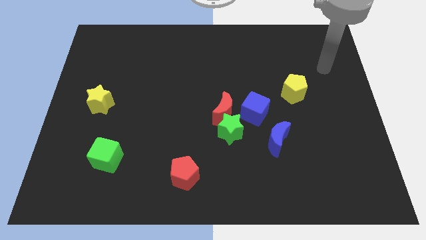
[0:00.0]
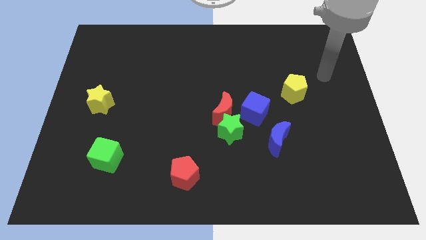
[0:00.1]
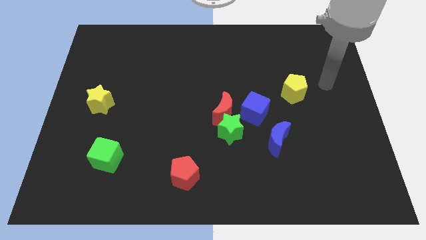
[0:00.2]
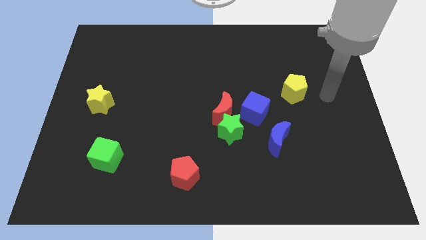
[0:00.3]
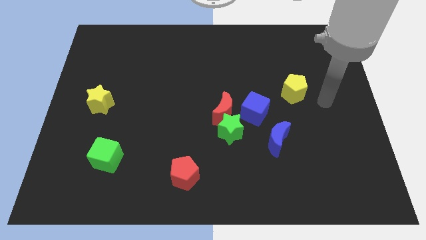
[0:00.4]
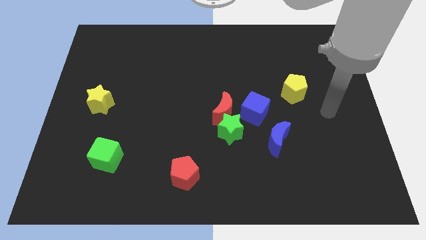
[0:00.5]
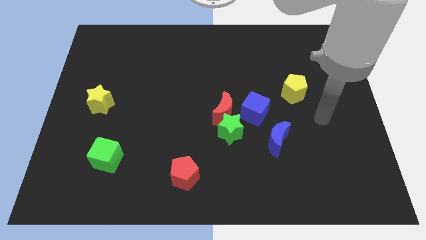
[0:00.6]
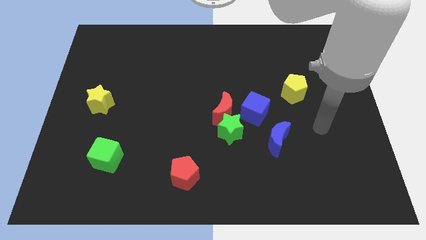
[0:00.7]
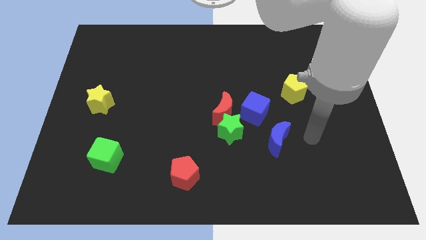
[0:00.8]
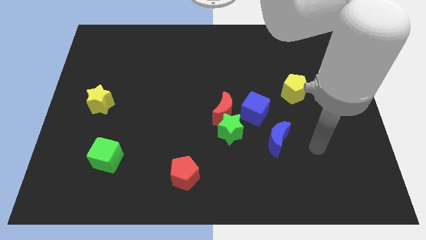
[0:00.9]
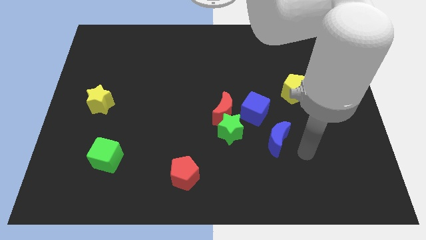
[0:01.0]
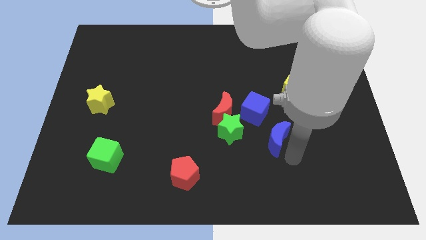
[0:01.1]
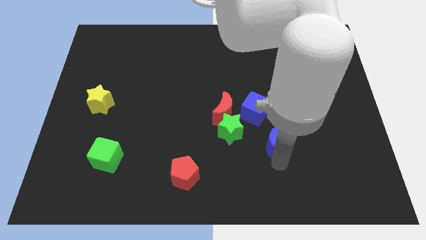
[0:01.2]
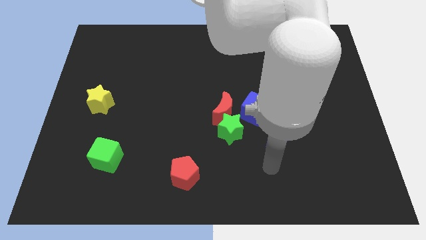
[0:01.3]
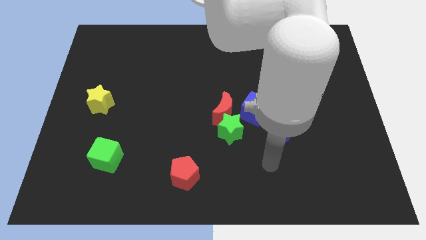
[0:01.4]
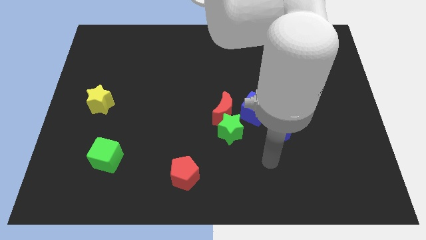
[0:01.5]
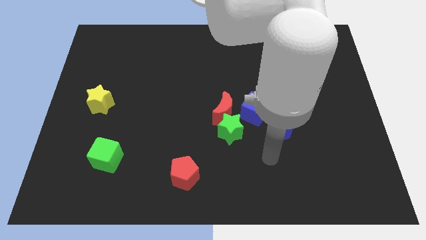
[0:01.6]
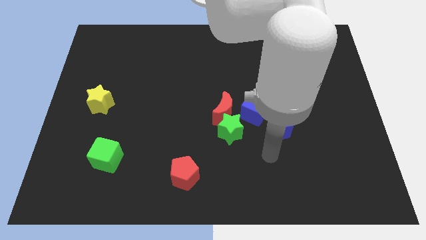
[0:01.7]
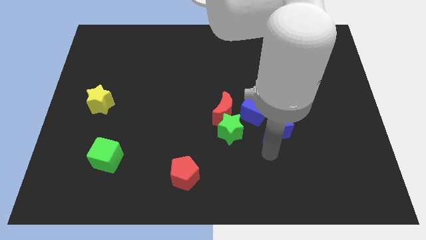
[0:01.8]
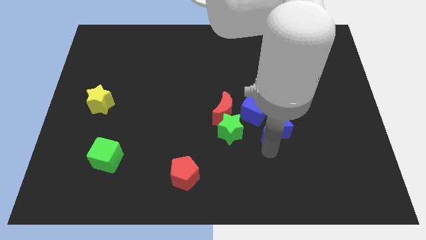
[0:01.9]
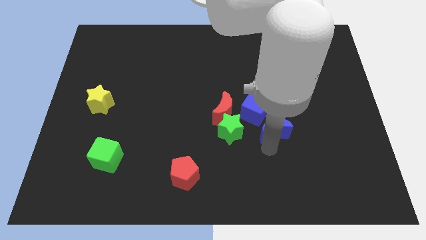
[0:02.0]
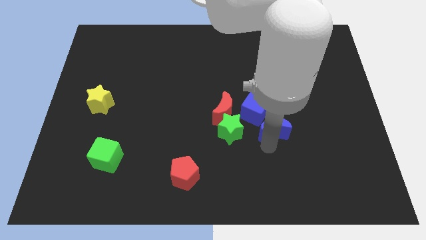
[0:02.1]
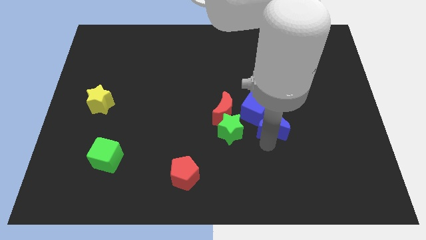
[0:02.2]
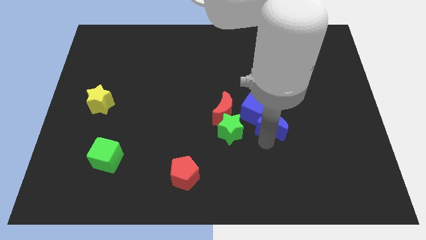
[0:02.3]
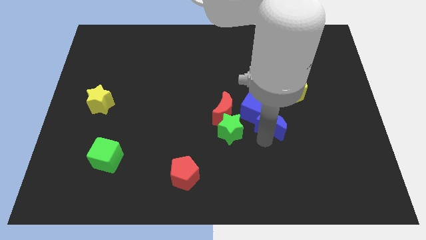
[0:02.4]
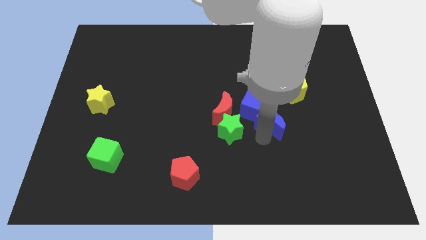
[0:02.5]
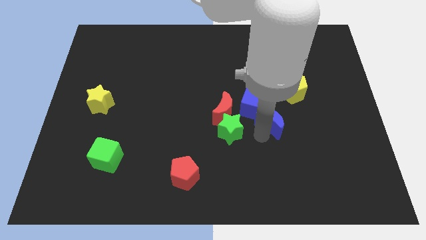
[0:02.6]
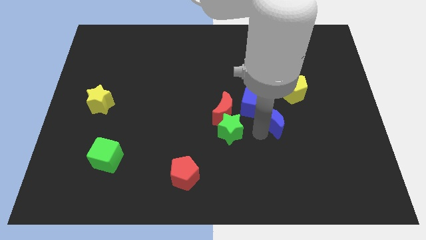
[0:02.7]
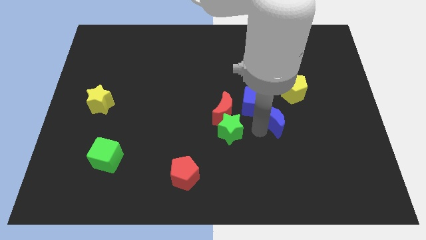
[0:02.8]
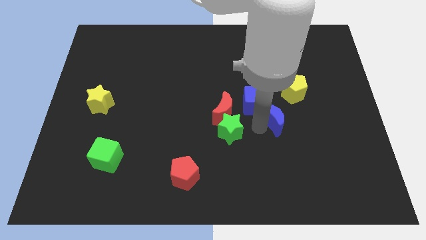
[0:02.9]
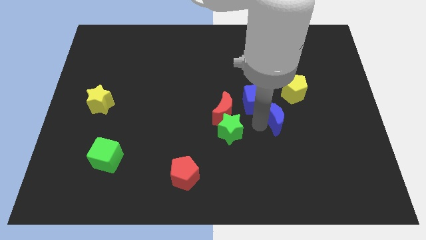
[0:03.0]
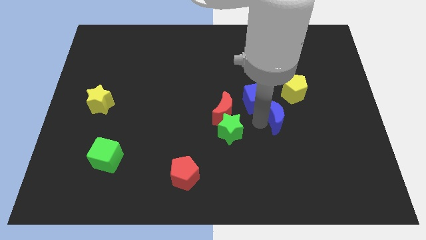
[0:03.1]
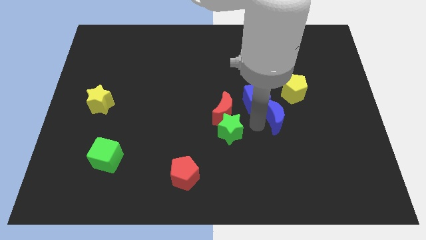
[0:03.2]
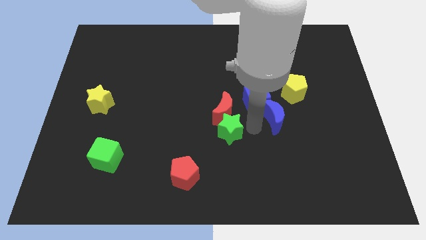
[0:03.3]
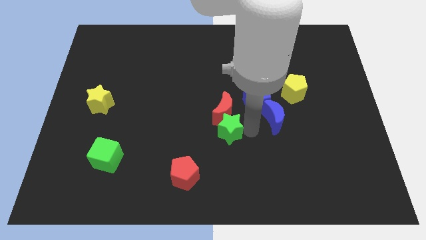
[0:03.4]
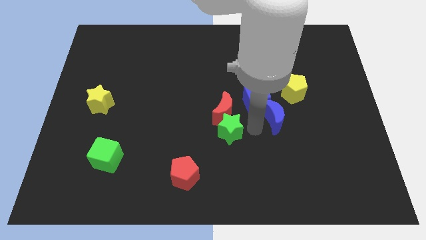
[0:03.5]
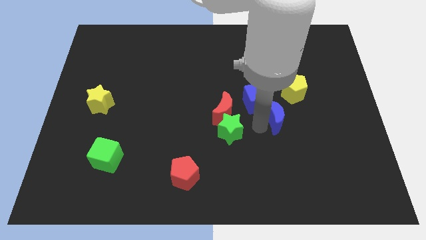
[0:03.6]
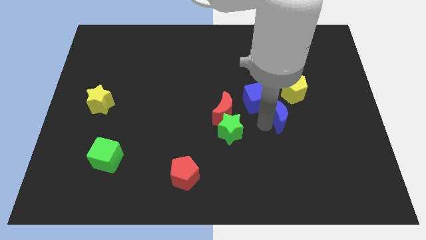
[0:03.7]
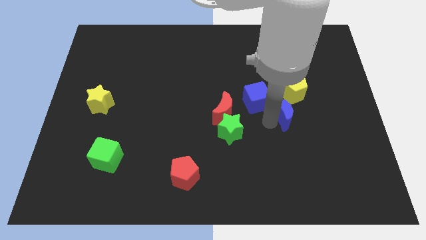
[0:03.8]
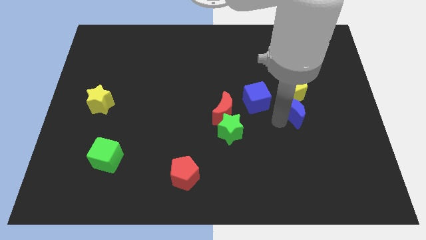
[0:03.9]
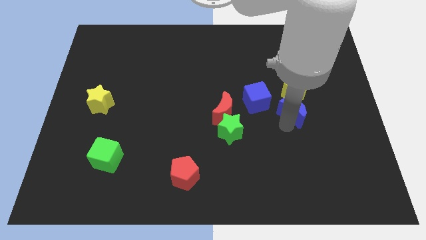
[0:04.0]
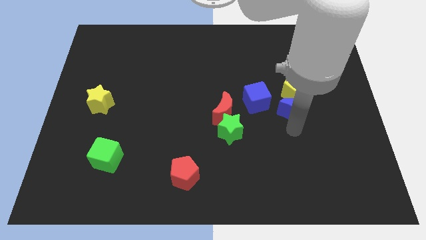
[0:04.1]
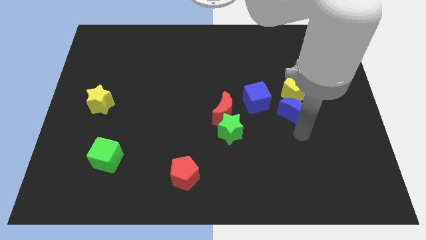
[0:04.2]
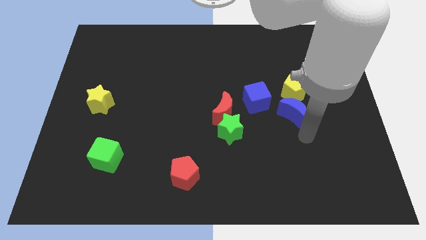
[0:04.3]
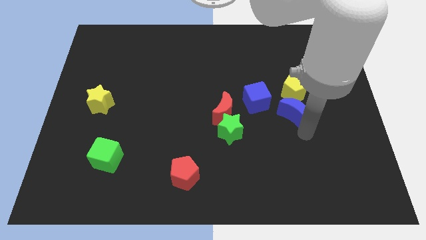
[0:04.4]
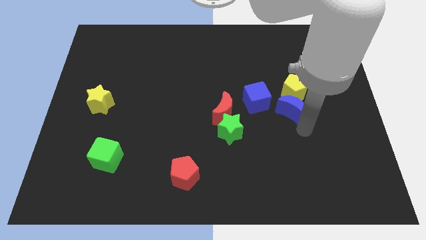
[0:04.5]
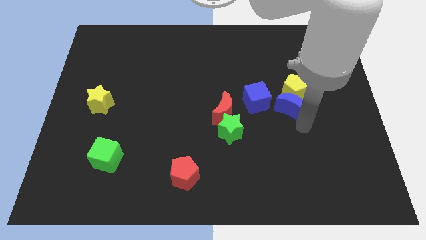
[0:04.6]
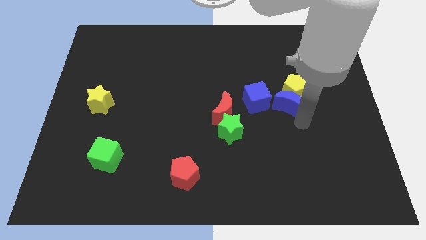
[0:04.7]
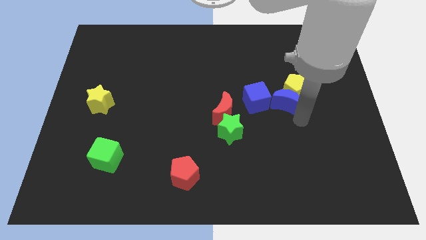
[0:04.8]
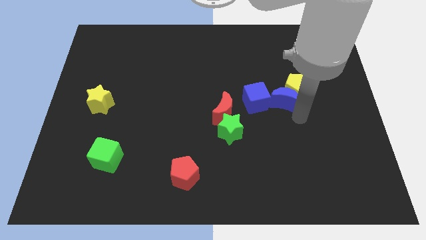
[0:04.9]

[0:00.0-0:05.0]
put the blue moon diagonally up and to the right of the blue cube
